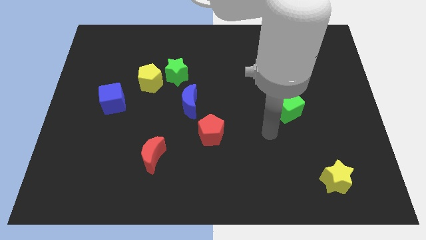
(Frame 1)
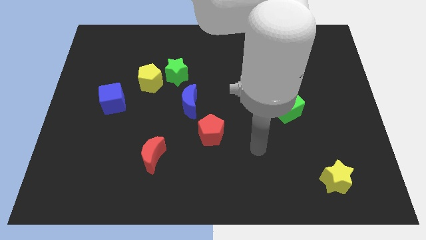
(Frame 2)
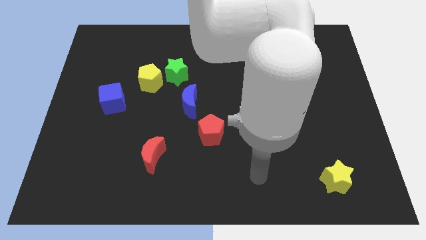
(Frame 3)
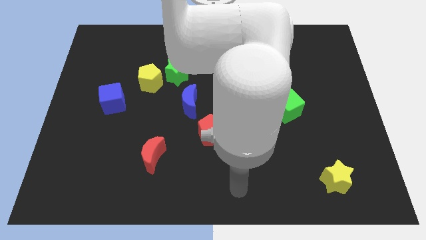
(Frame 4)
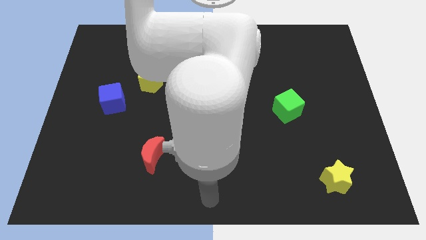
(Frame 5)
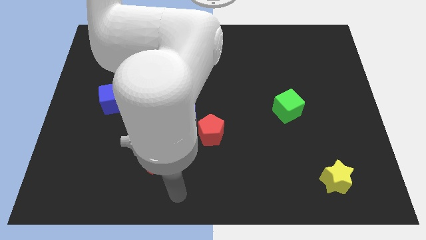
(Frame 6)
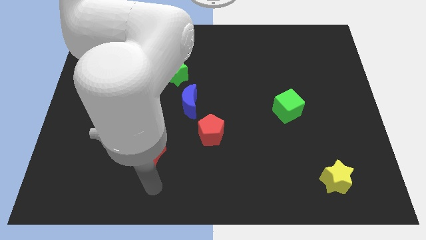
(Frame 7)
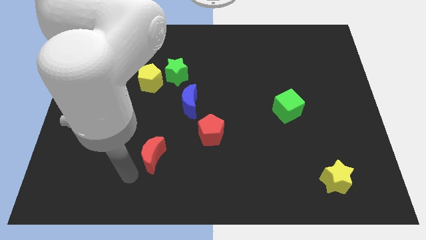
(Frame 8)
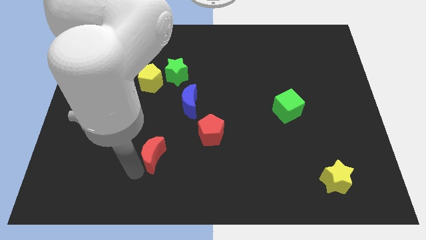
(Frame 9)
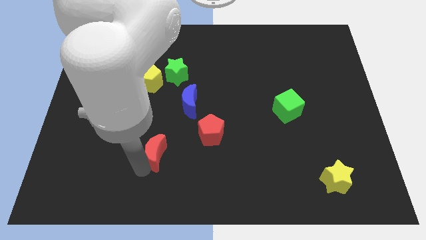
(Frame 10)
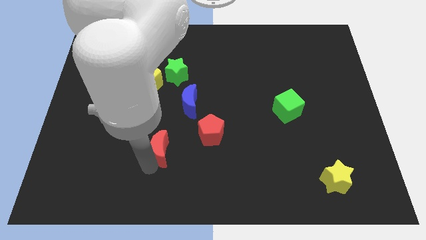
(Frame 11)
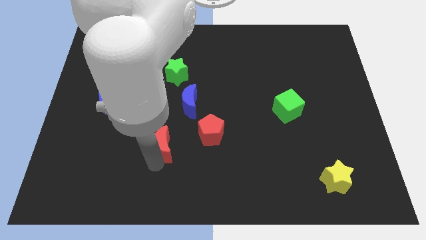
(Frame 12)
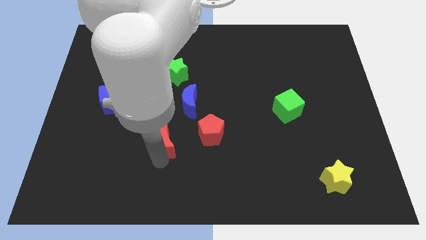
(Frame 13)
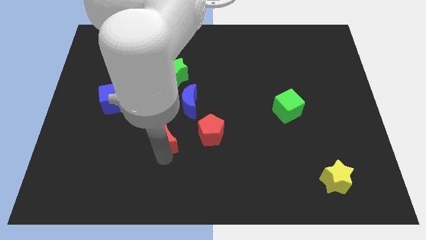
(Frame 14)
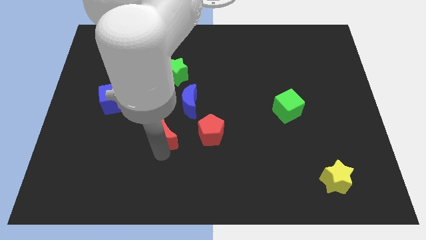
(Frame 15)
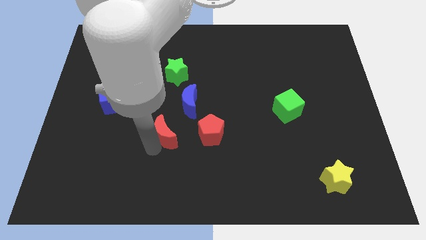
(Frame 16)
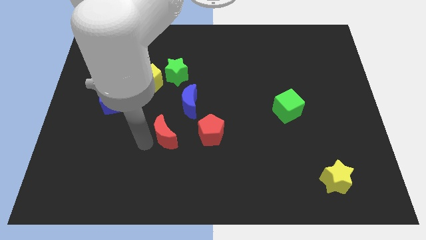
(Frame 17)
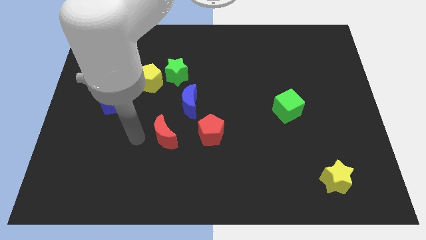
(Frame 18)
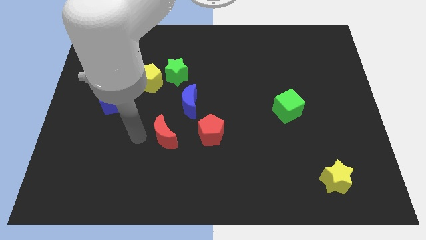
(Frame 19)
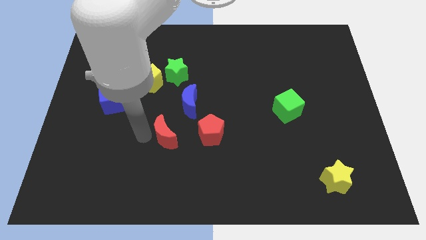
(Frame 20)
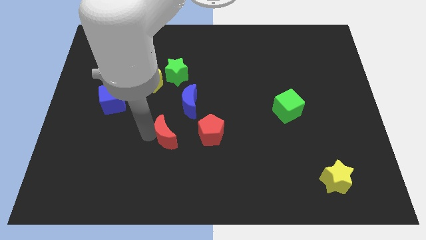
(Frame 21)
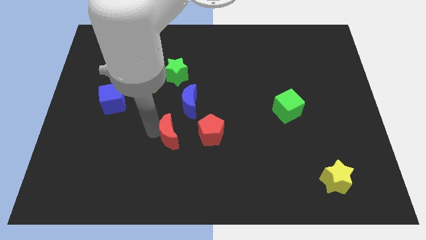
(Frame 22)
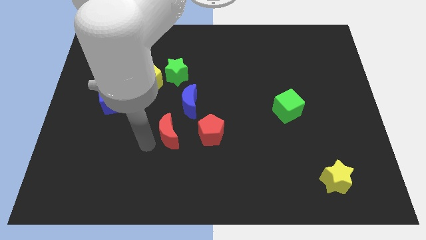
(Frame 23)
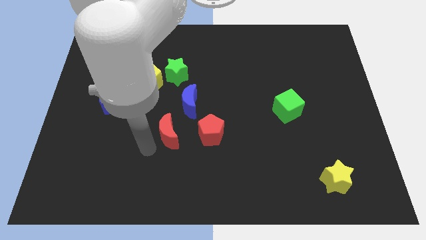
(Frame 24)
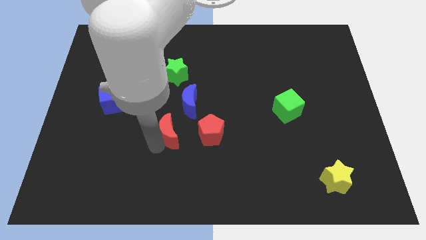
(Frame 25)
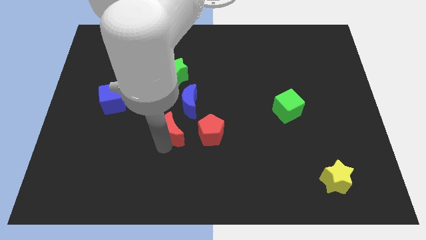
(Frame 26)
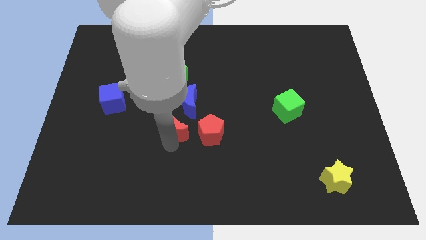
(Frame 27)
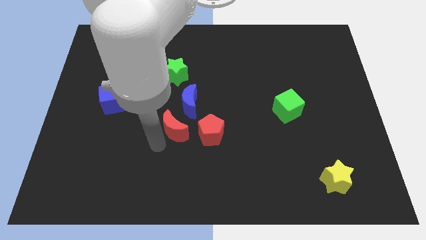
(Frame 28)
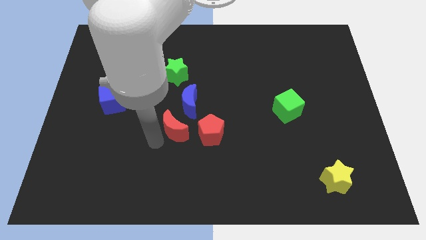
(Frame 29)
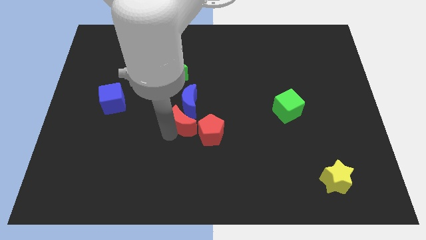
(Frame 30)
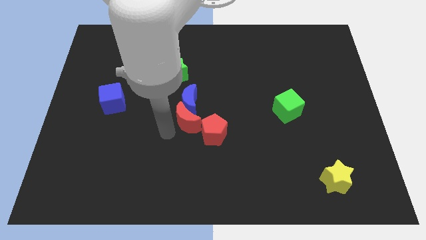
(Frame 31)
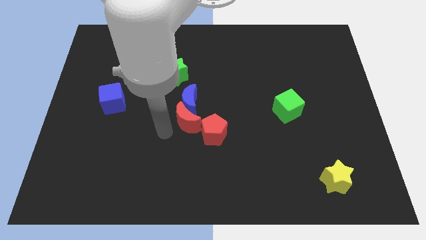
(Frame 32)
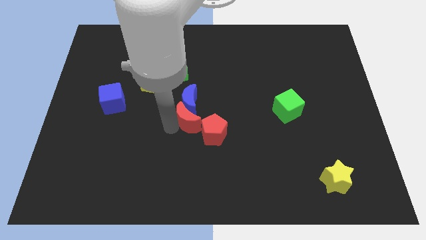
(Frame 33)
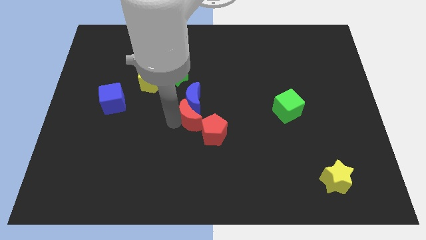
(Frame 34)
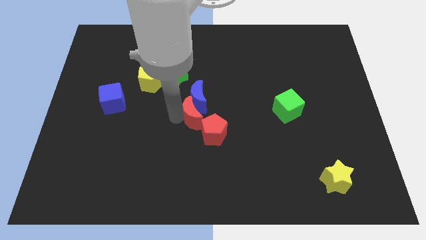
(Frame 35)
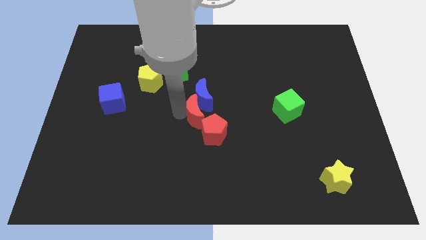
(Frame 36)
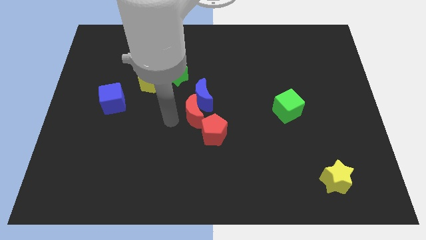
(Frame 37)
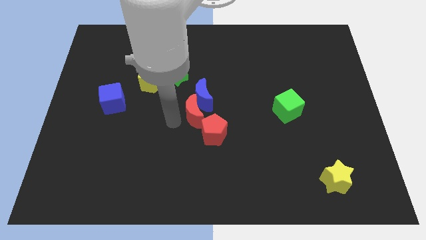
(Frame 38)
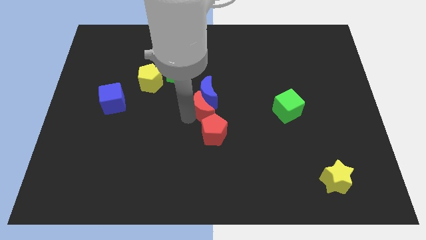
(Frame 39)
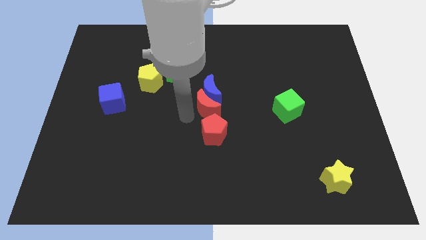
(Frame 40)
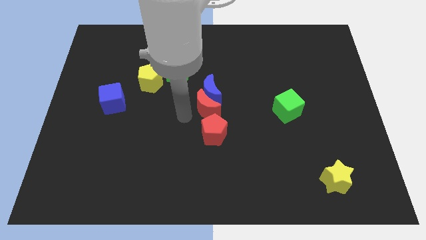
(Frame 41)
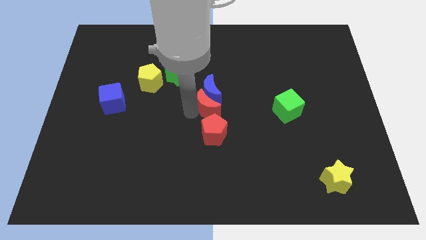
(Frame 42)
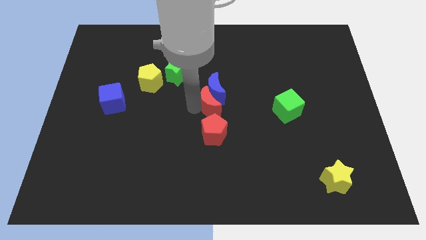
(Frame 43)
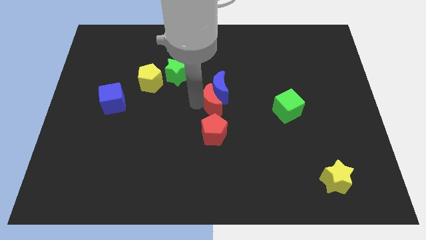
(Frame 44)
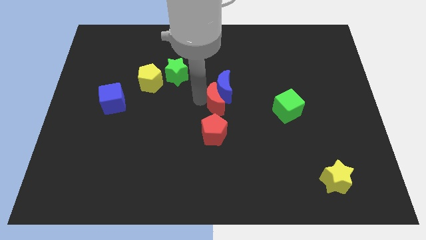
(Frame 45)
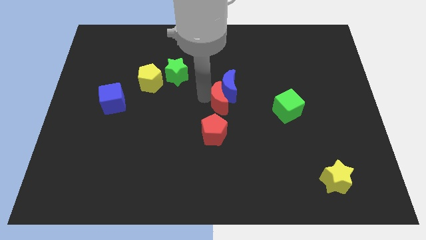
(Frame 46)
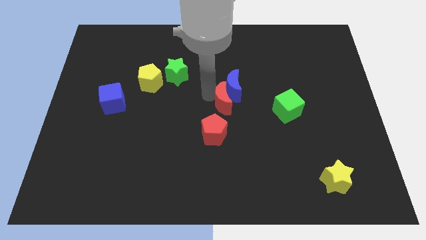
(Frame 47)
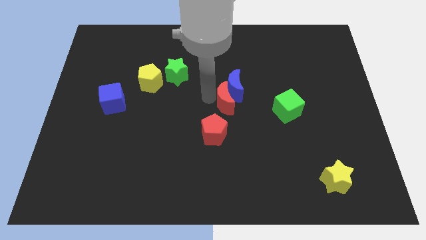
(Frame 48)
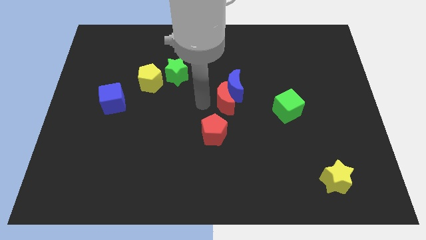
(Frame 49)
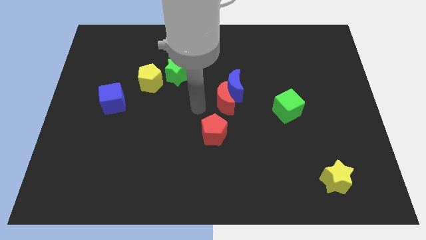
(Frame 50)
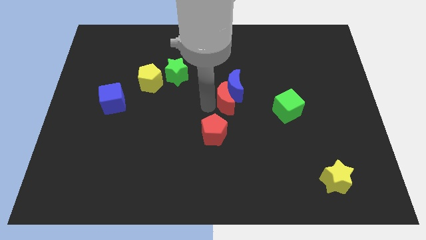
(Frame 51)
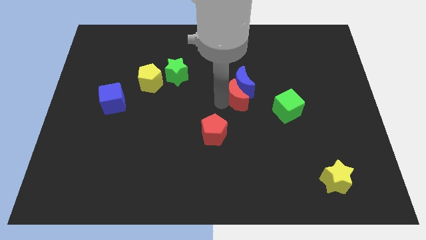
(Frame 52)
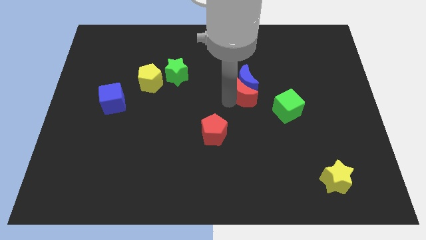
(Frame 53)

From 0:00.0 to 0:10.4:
push the red moon to the top left of the green cube

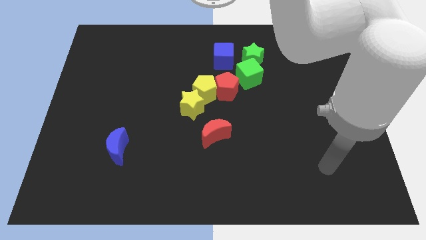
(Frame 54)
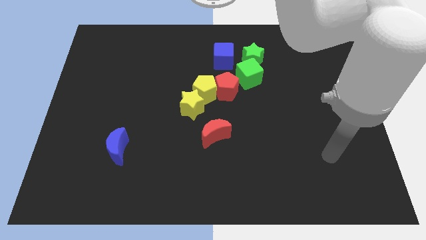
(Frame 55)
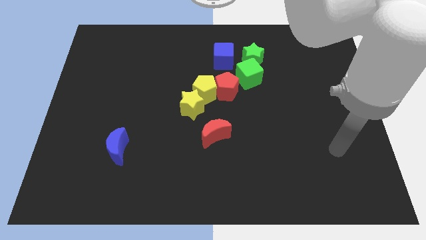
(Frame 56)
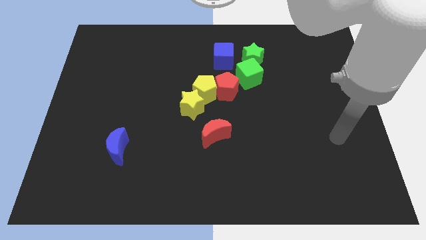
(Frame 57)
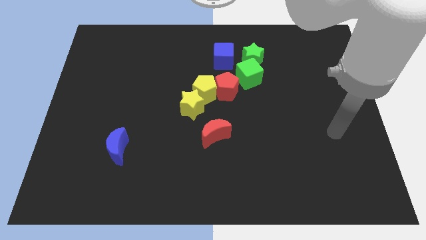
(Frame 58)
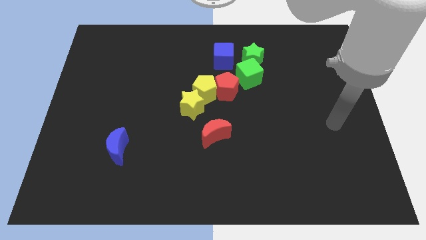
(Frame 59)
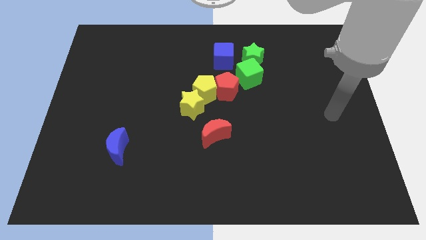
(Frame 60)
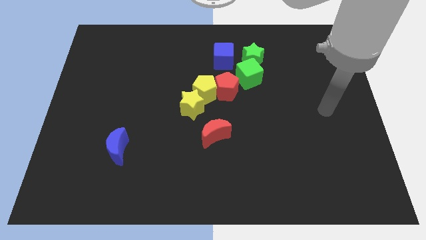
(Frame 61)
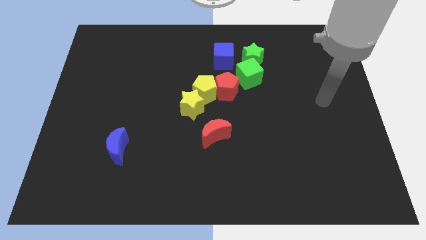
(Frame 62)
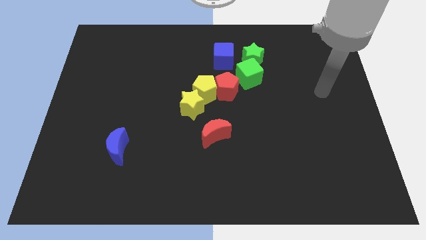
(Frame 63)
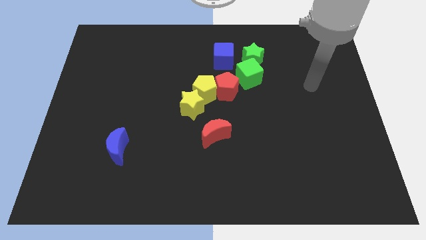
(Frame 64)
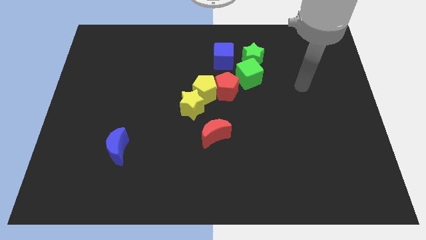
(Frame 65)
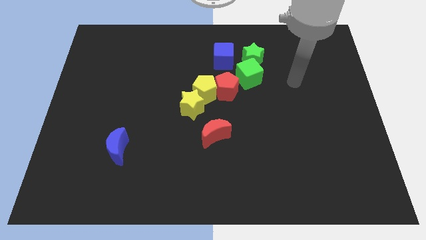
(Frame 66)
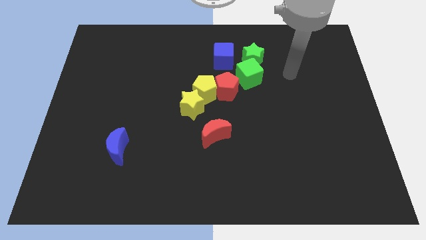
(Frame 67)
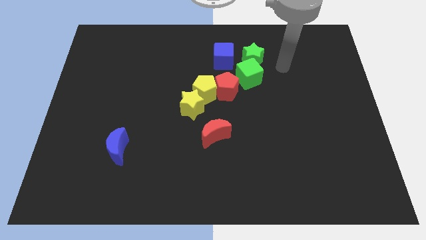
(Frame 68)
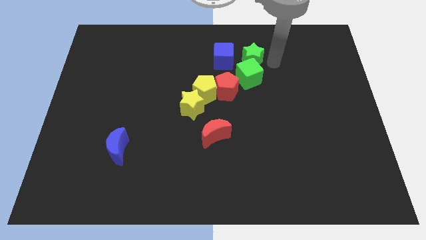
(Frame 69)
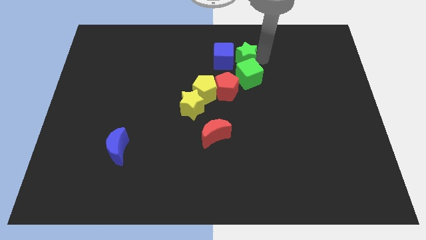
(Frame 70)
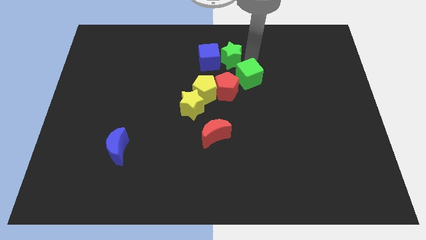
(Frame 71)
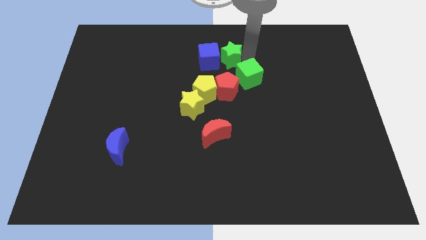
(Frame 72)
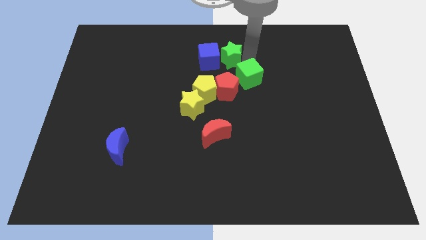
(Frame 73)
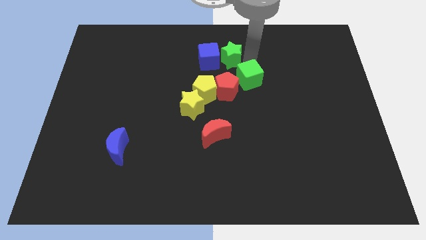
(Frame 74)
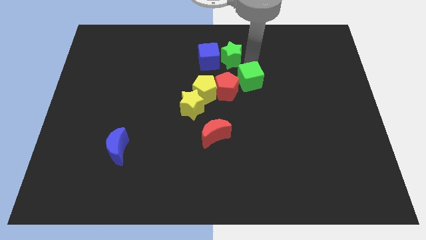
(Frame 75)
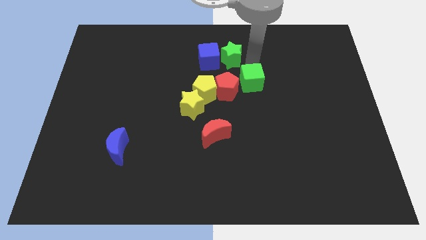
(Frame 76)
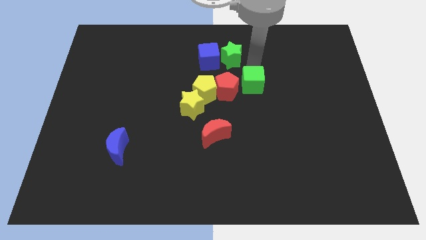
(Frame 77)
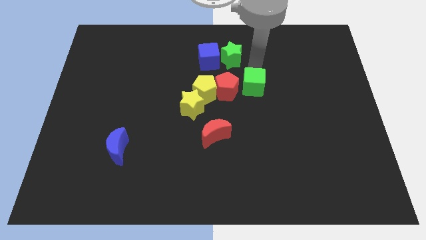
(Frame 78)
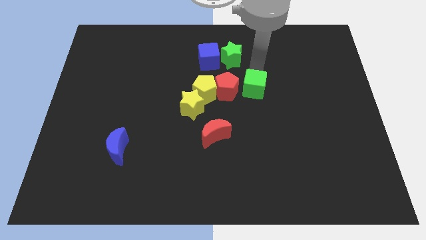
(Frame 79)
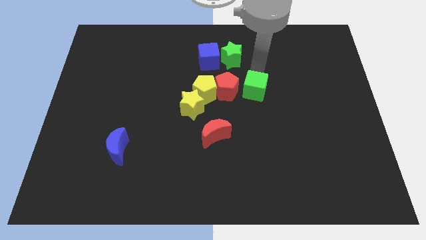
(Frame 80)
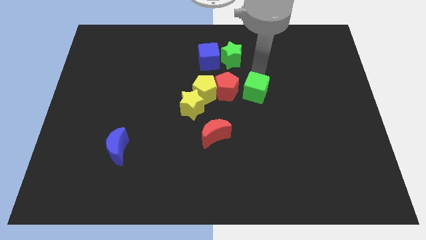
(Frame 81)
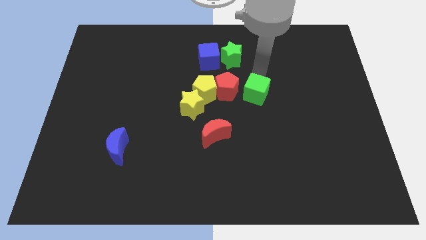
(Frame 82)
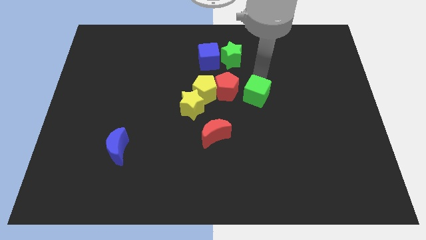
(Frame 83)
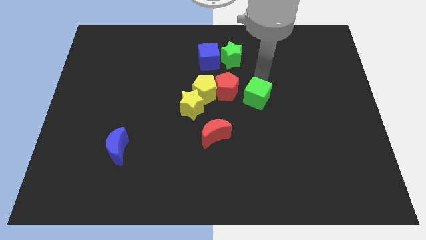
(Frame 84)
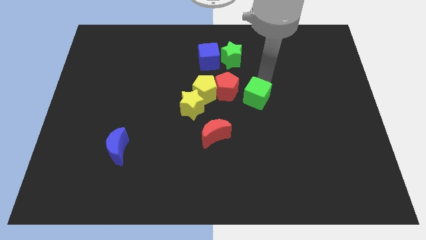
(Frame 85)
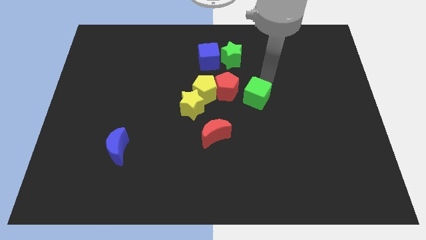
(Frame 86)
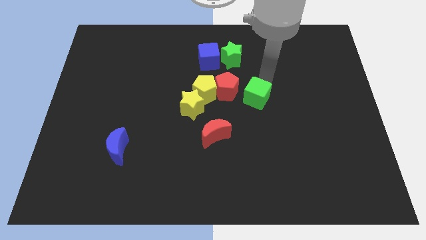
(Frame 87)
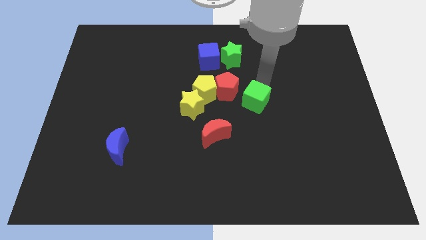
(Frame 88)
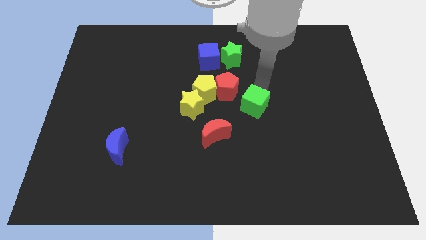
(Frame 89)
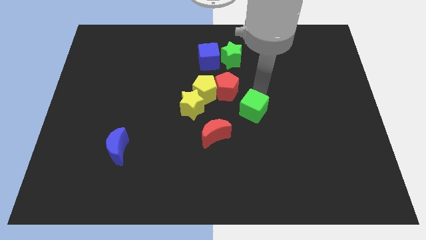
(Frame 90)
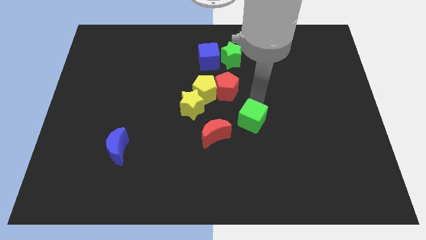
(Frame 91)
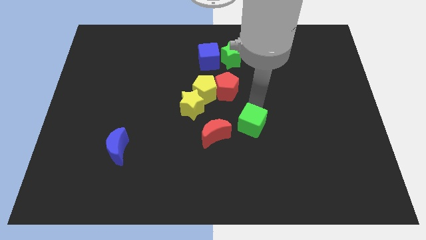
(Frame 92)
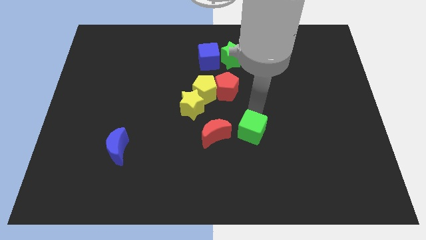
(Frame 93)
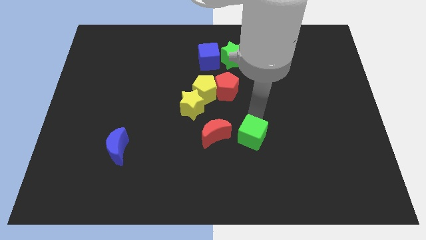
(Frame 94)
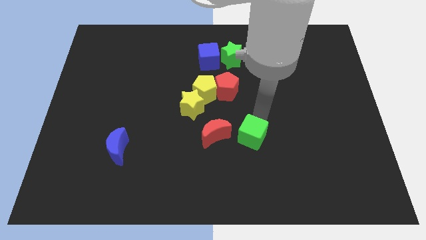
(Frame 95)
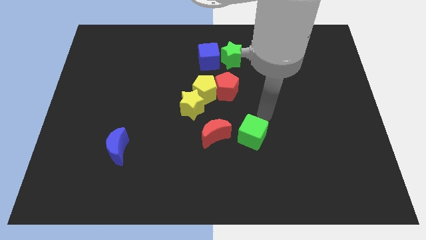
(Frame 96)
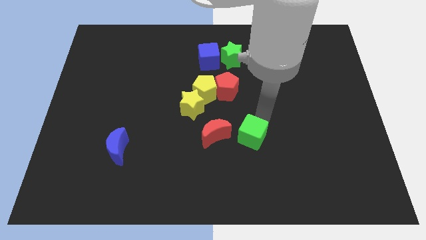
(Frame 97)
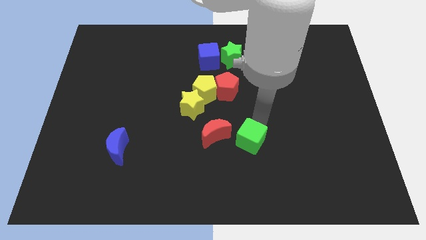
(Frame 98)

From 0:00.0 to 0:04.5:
move the green cube to the bottom right of the red moon
